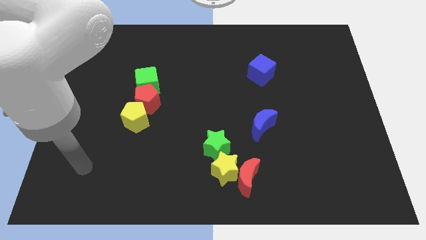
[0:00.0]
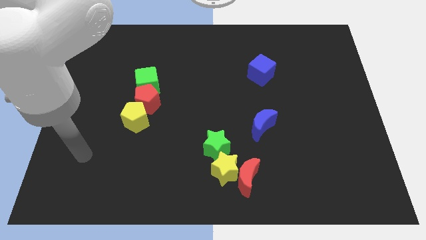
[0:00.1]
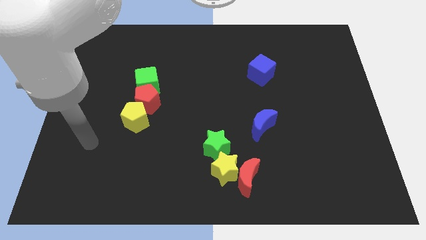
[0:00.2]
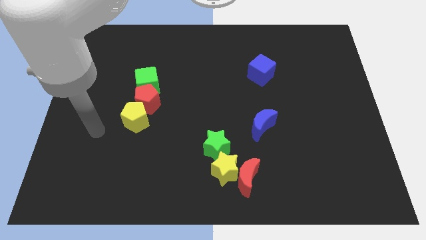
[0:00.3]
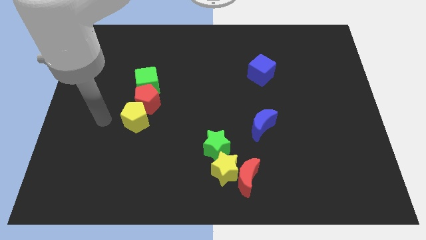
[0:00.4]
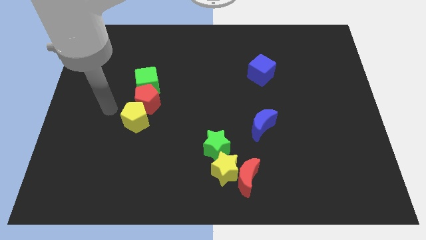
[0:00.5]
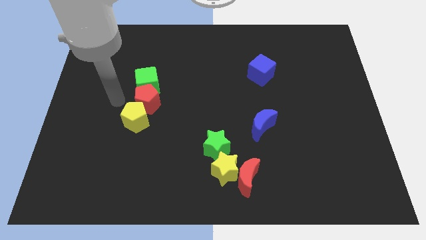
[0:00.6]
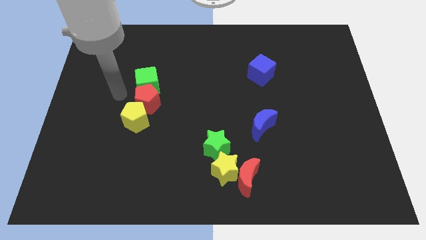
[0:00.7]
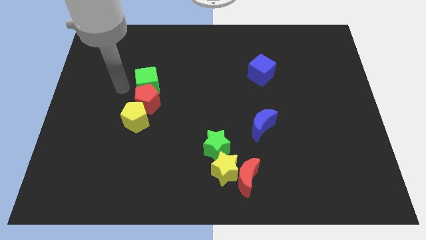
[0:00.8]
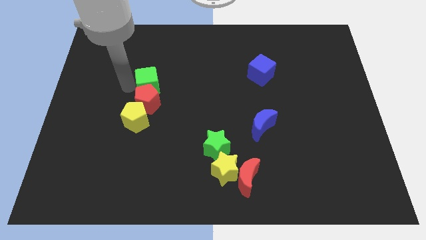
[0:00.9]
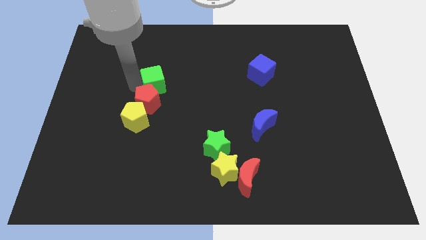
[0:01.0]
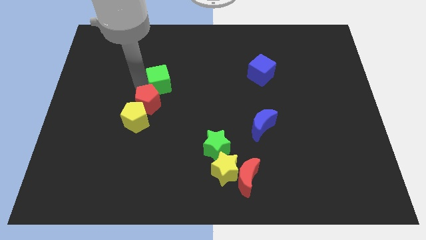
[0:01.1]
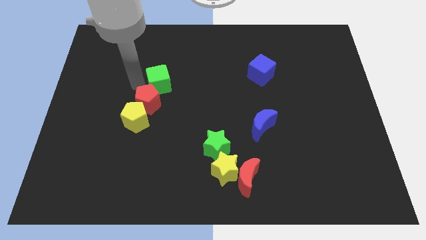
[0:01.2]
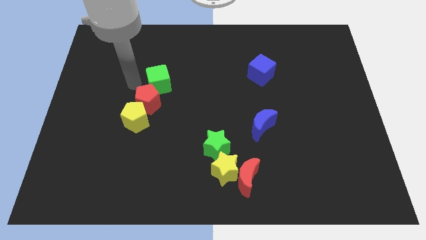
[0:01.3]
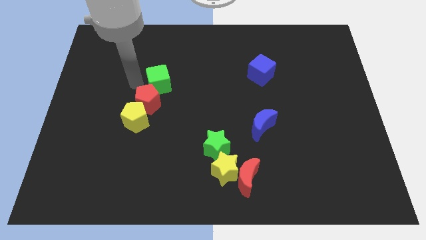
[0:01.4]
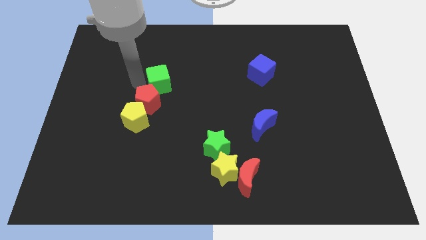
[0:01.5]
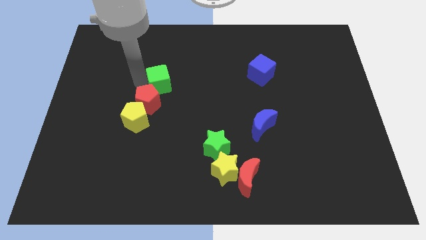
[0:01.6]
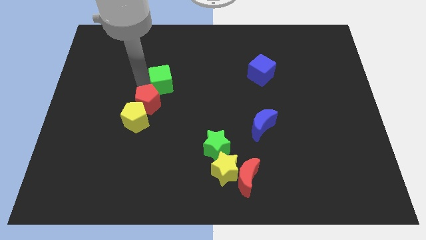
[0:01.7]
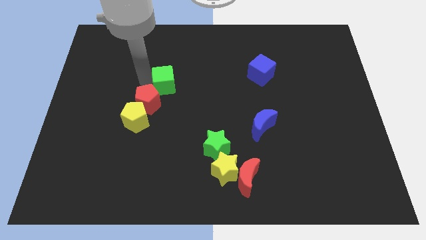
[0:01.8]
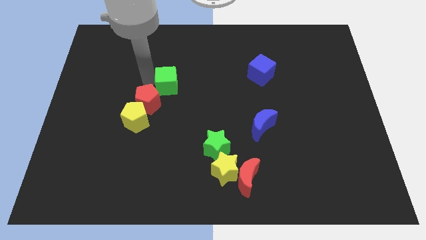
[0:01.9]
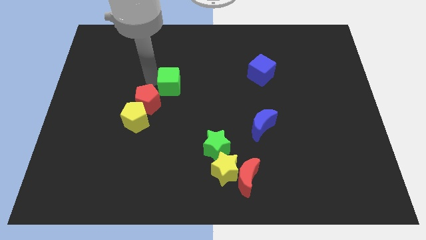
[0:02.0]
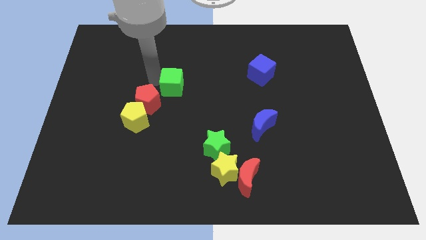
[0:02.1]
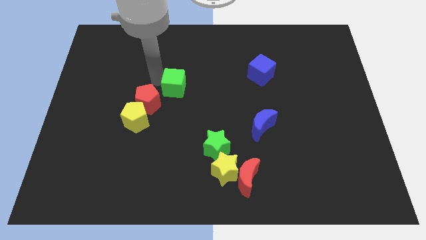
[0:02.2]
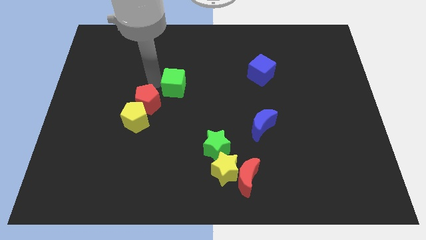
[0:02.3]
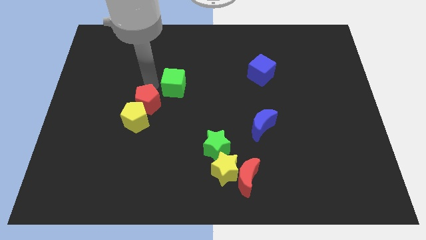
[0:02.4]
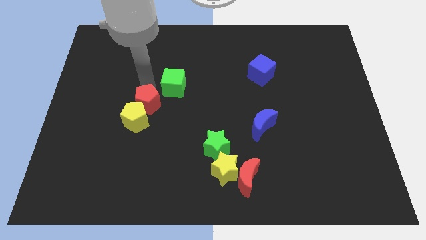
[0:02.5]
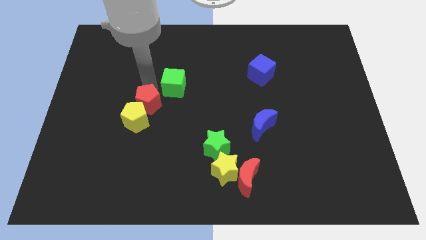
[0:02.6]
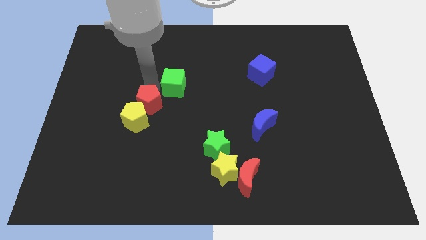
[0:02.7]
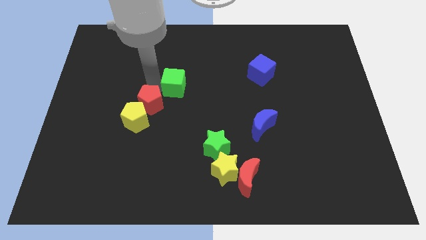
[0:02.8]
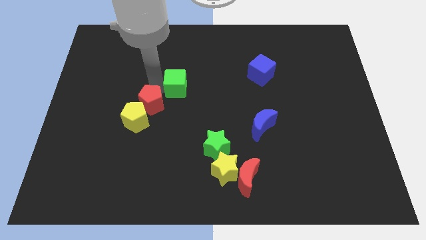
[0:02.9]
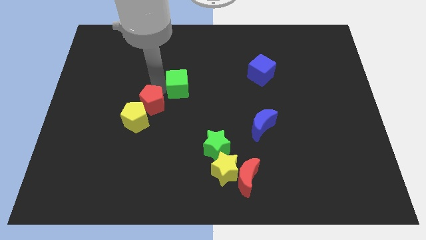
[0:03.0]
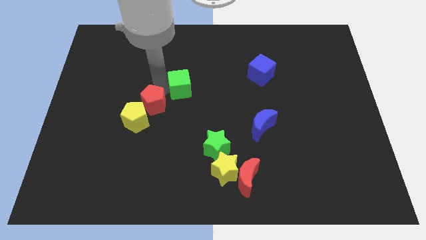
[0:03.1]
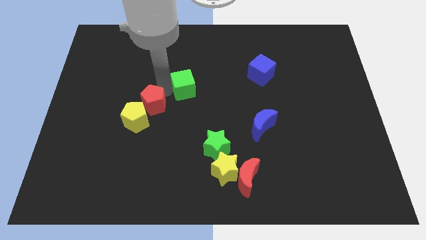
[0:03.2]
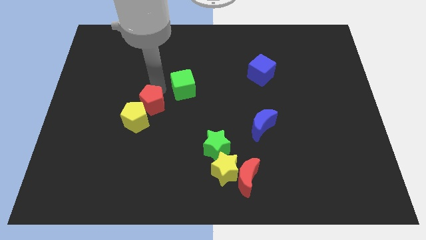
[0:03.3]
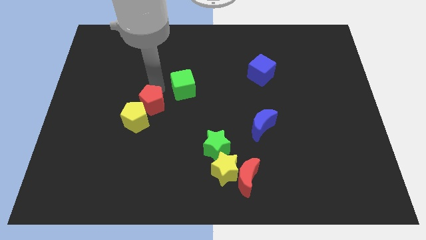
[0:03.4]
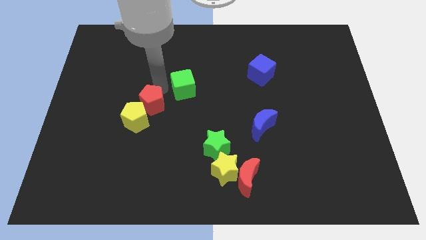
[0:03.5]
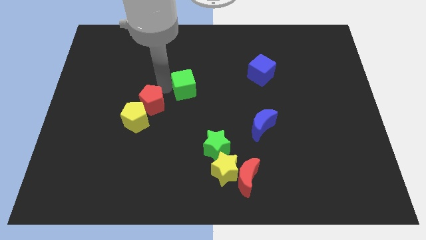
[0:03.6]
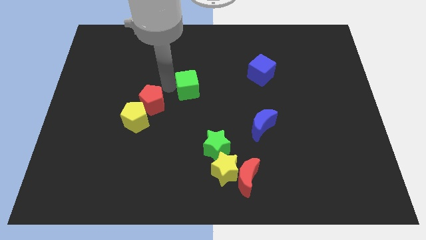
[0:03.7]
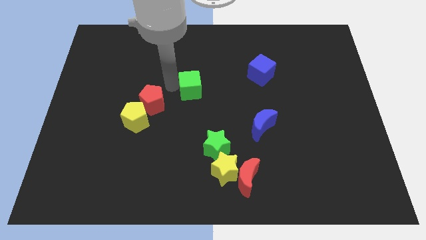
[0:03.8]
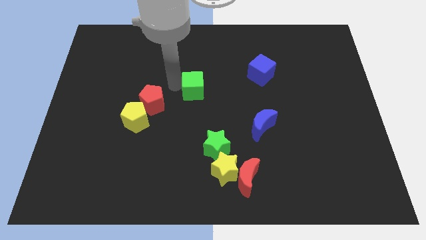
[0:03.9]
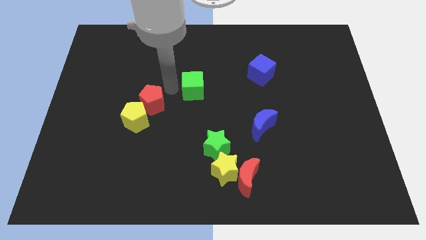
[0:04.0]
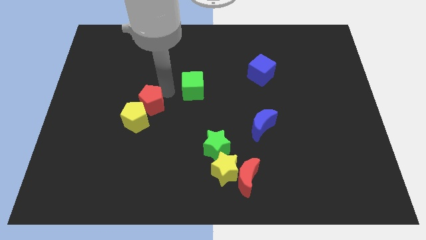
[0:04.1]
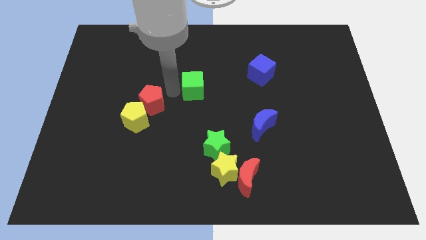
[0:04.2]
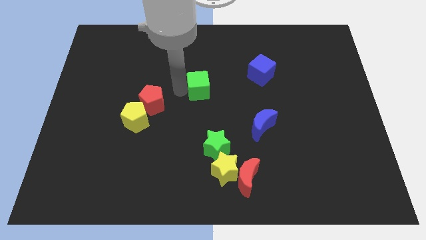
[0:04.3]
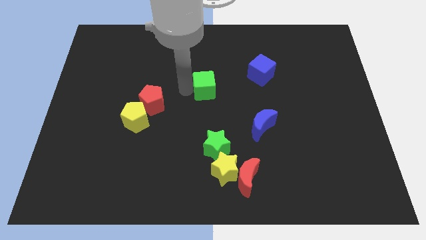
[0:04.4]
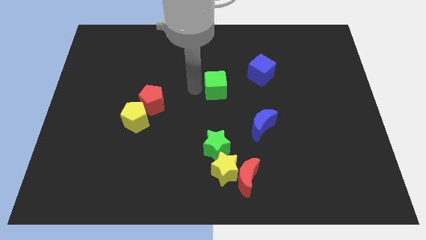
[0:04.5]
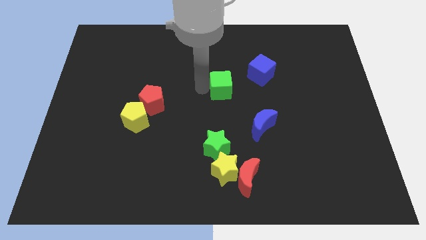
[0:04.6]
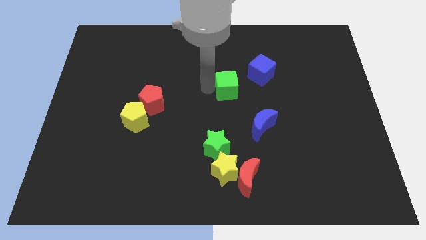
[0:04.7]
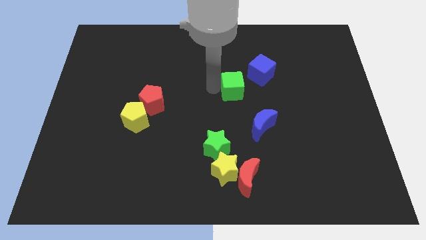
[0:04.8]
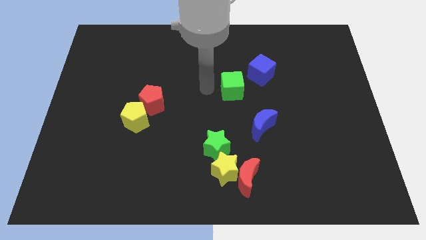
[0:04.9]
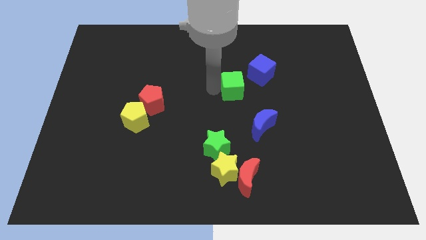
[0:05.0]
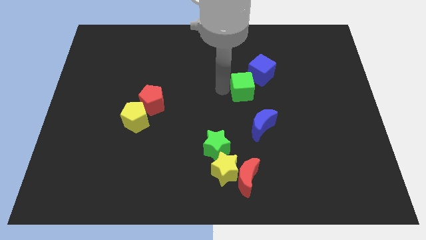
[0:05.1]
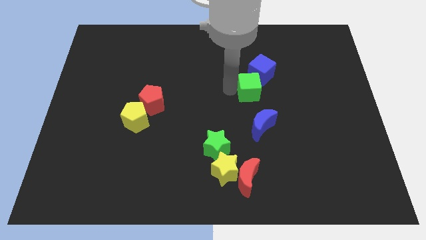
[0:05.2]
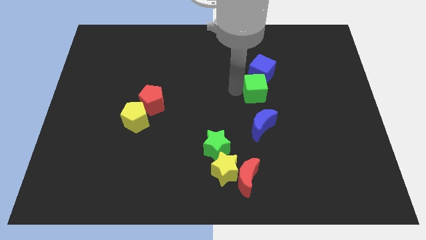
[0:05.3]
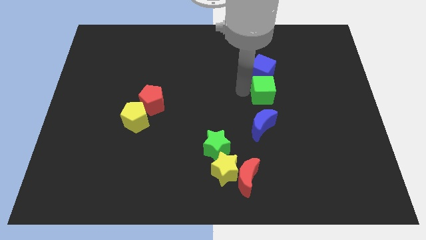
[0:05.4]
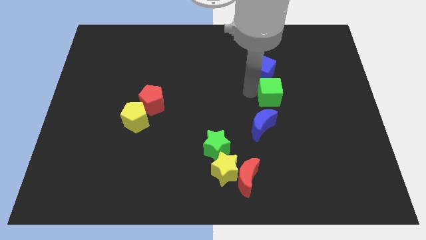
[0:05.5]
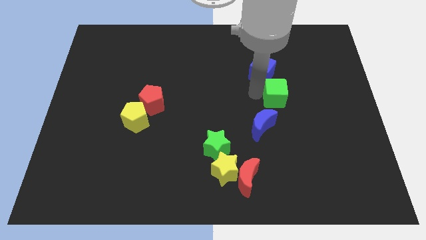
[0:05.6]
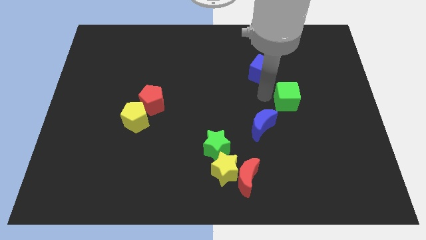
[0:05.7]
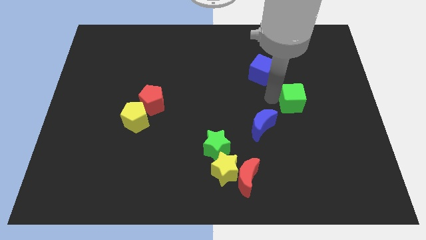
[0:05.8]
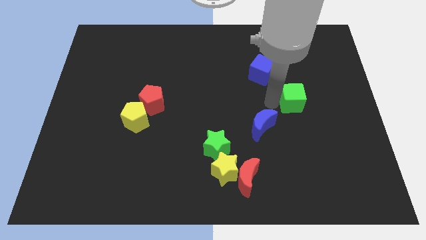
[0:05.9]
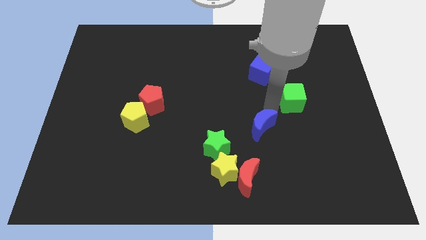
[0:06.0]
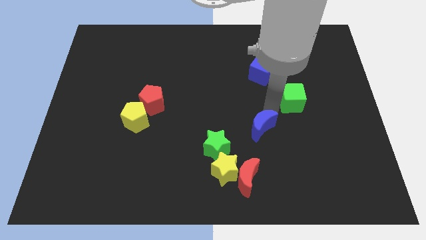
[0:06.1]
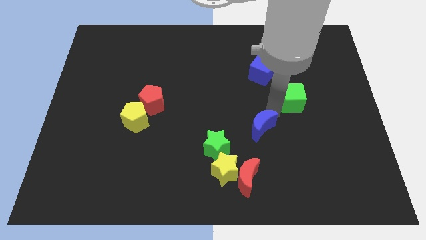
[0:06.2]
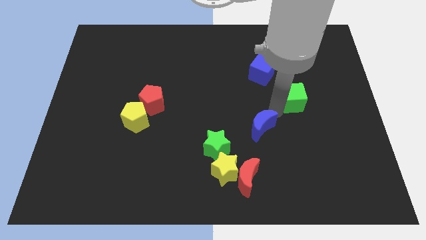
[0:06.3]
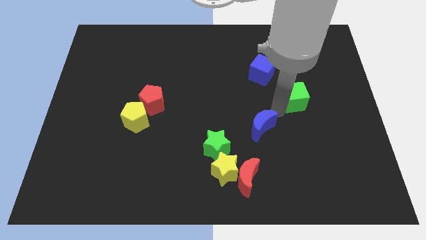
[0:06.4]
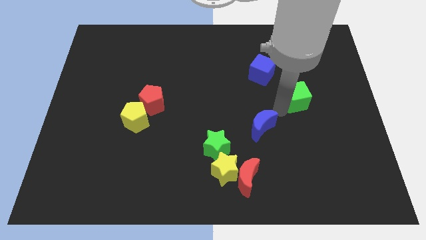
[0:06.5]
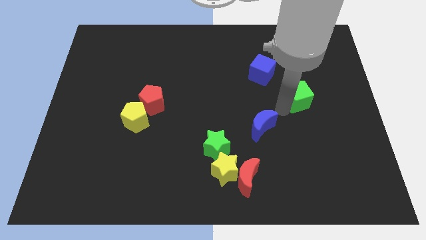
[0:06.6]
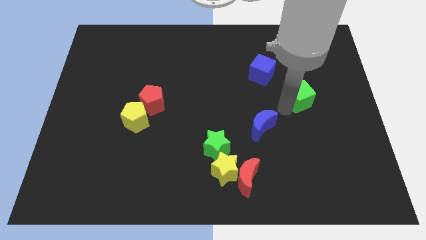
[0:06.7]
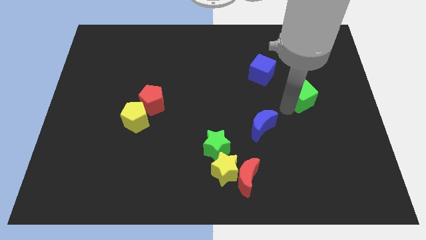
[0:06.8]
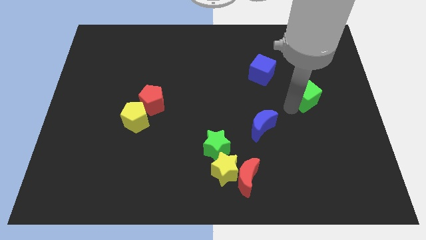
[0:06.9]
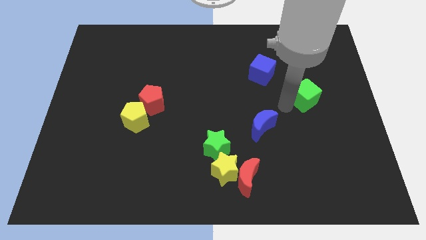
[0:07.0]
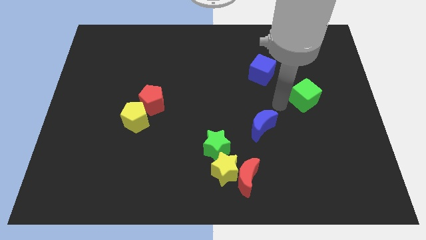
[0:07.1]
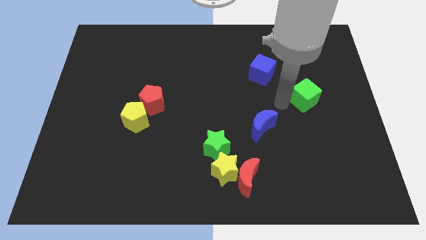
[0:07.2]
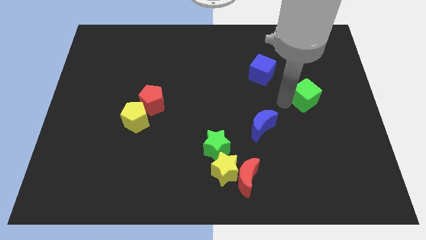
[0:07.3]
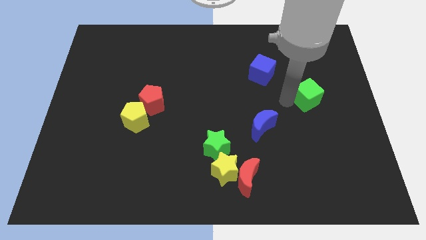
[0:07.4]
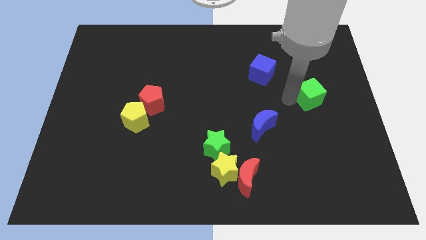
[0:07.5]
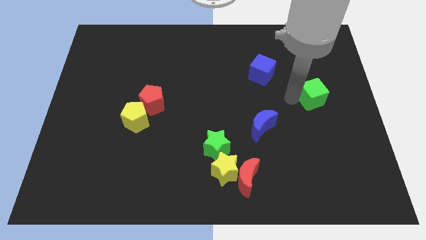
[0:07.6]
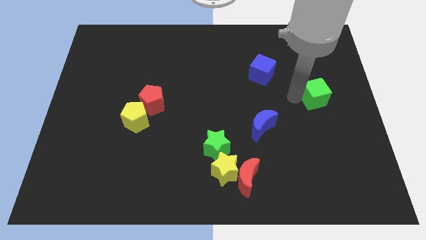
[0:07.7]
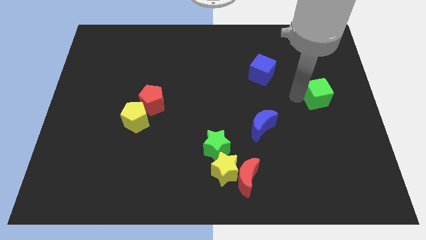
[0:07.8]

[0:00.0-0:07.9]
slide the green cube to the right side of the board
